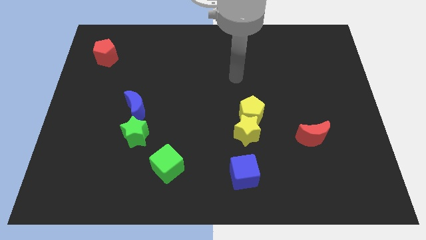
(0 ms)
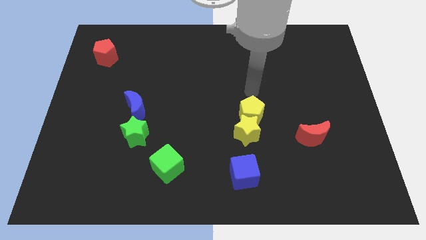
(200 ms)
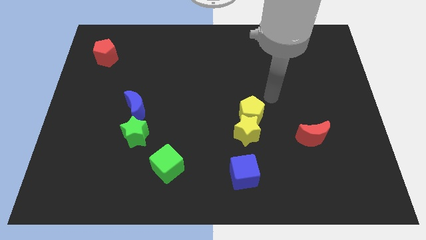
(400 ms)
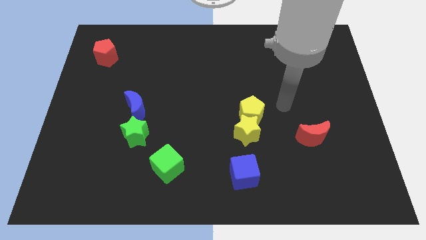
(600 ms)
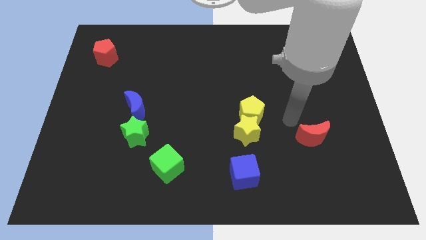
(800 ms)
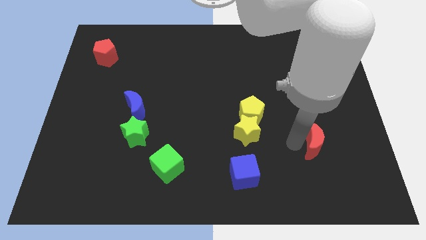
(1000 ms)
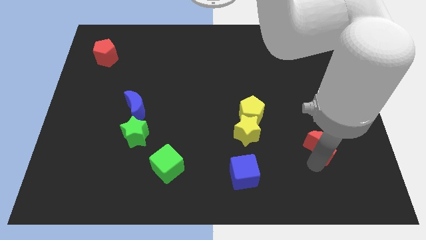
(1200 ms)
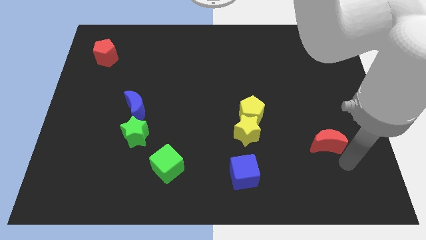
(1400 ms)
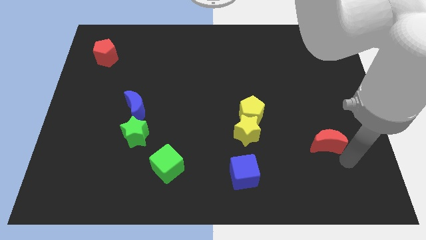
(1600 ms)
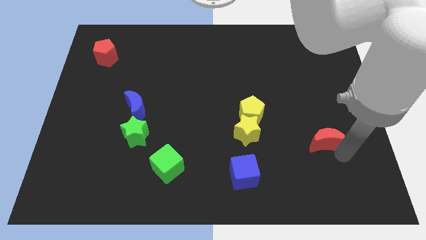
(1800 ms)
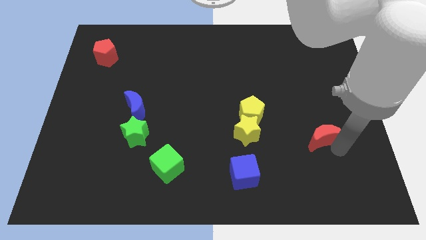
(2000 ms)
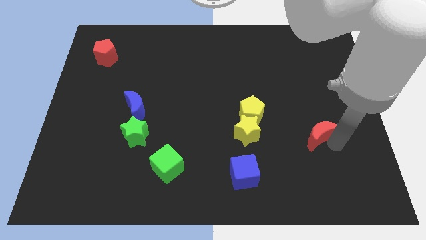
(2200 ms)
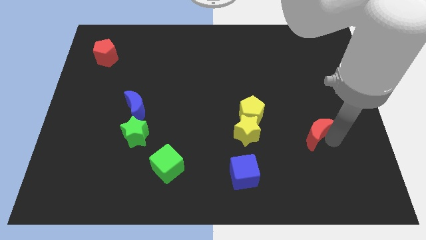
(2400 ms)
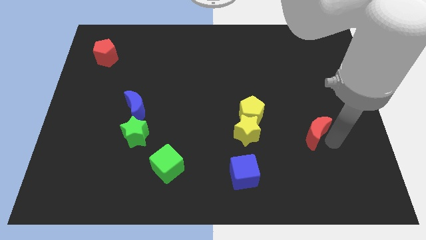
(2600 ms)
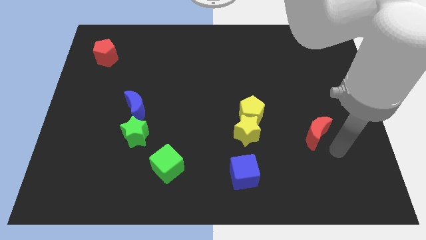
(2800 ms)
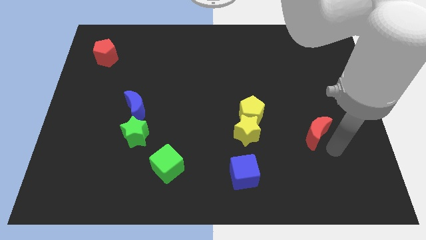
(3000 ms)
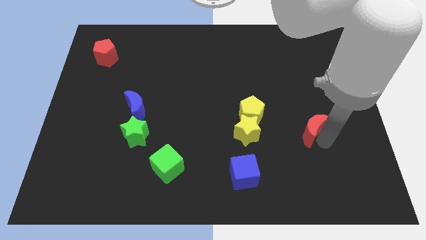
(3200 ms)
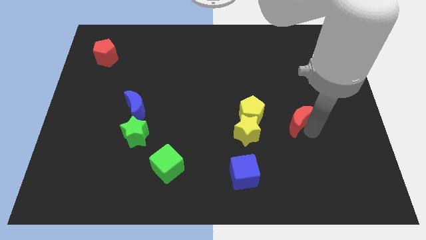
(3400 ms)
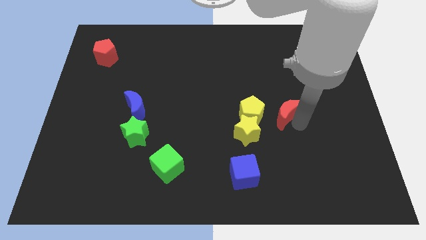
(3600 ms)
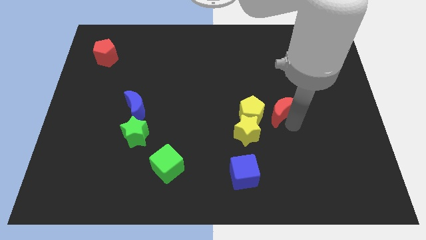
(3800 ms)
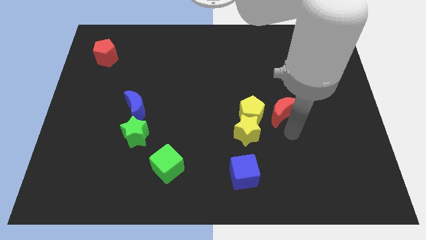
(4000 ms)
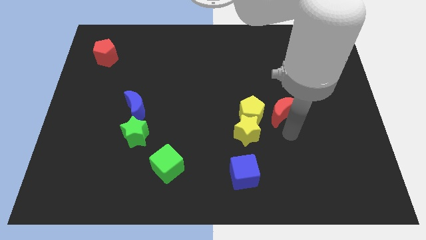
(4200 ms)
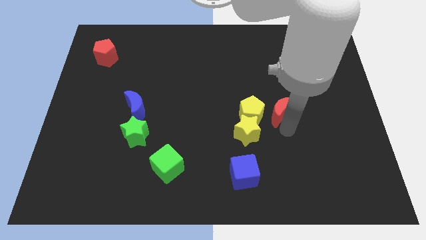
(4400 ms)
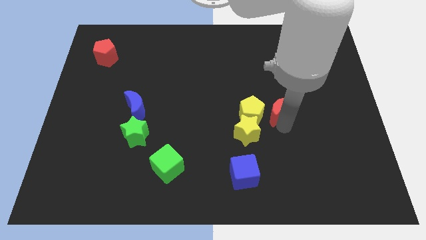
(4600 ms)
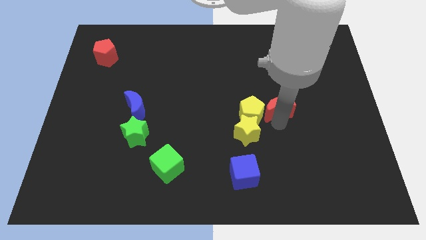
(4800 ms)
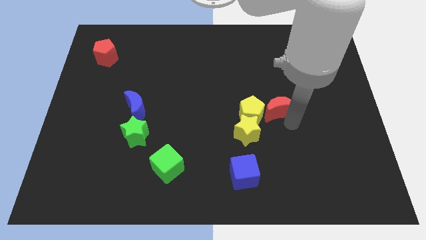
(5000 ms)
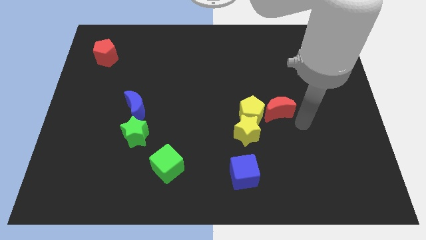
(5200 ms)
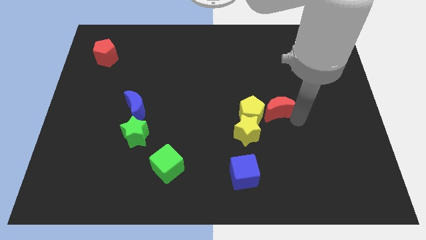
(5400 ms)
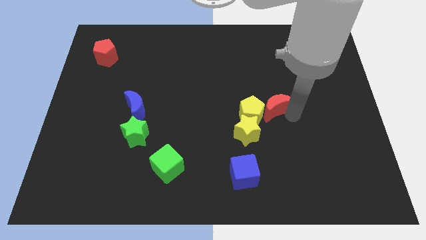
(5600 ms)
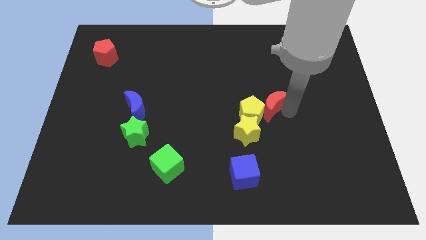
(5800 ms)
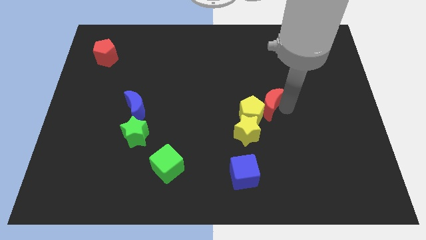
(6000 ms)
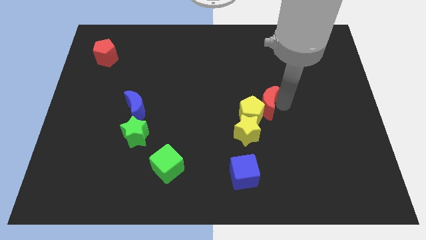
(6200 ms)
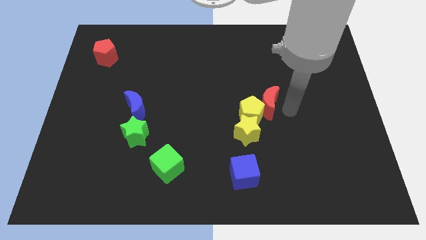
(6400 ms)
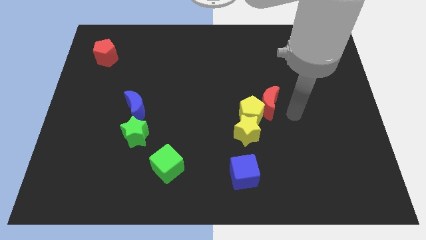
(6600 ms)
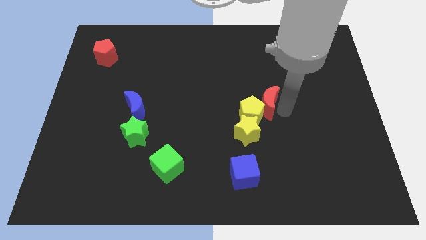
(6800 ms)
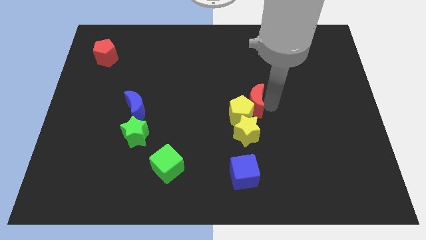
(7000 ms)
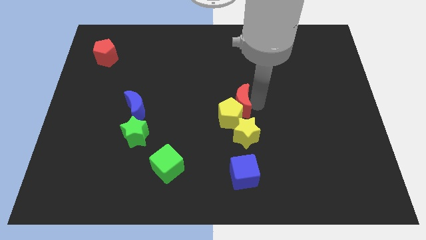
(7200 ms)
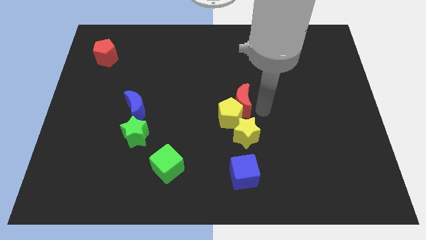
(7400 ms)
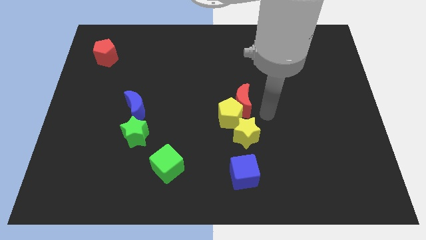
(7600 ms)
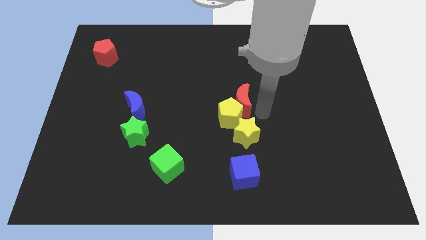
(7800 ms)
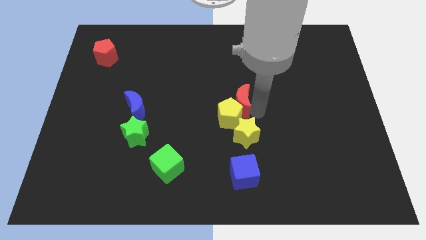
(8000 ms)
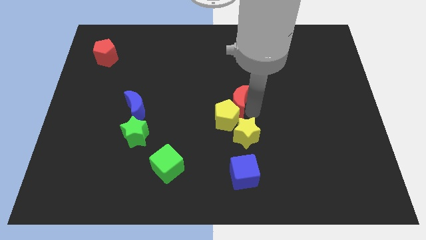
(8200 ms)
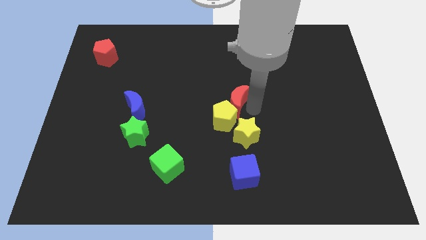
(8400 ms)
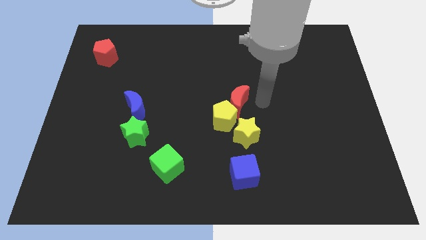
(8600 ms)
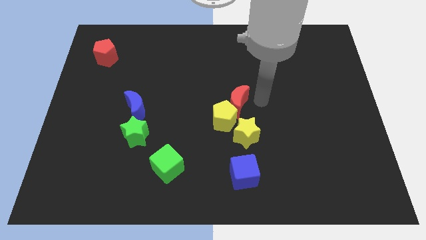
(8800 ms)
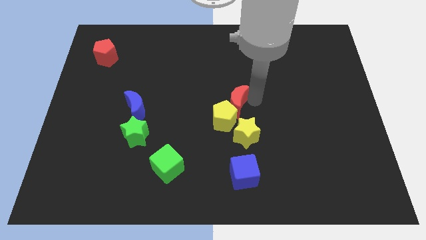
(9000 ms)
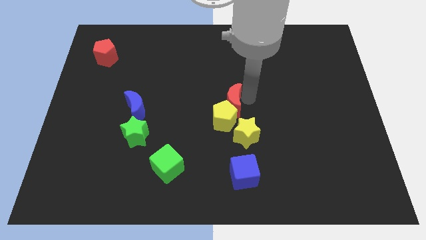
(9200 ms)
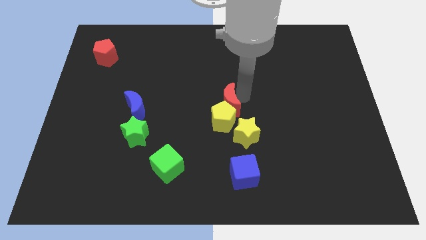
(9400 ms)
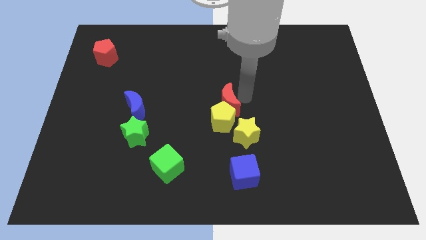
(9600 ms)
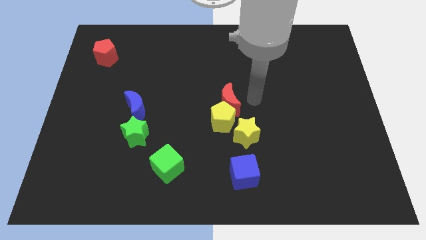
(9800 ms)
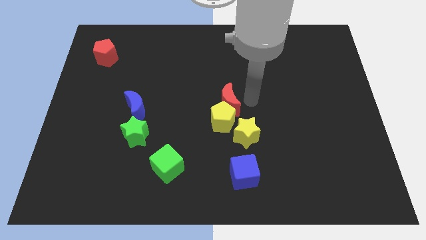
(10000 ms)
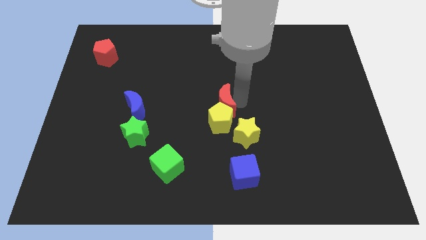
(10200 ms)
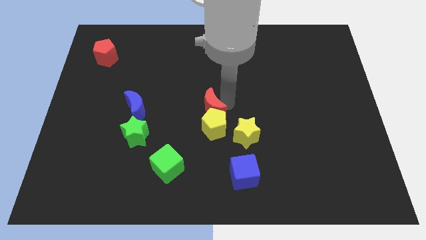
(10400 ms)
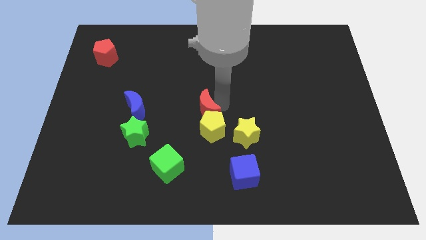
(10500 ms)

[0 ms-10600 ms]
move the red moon left

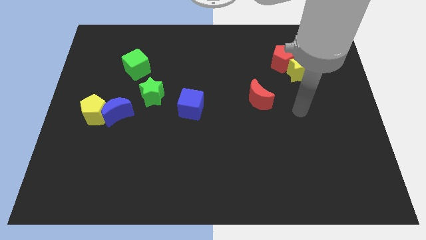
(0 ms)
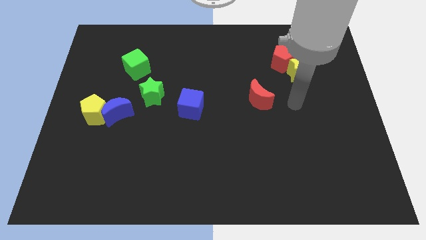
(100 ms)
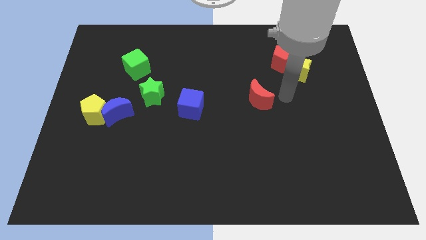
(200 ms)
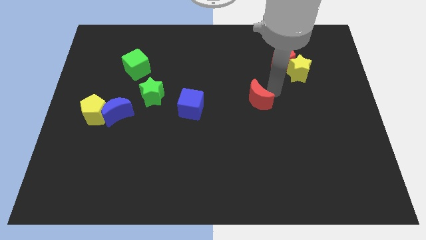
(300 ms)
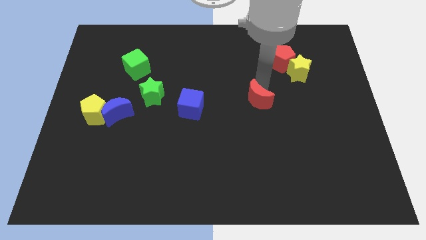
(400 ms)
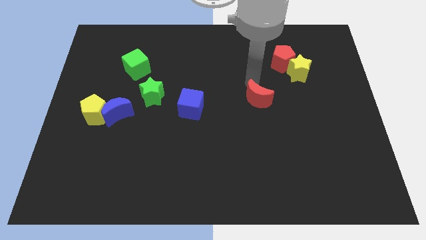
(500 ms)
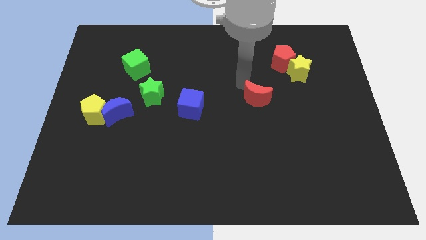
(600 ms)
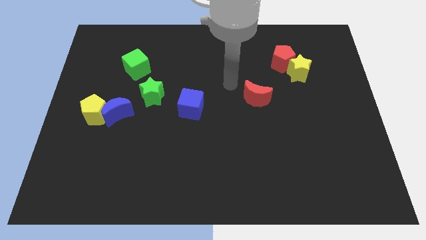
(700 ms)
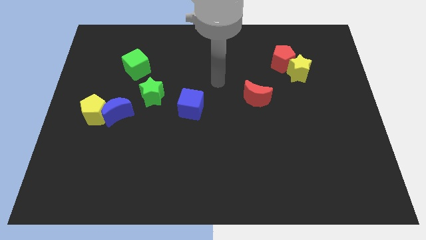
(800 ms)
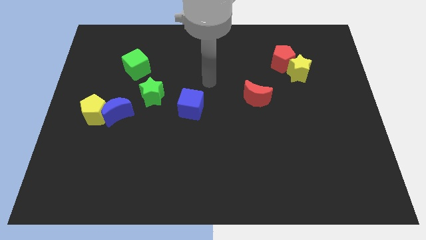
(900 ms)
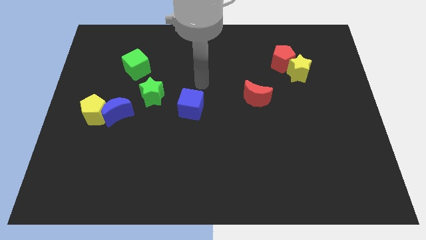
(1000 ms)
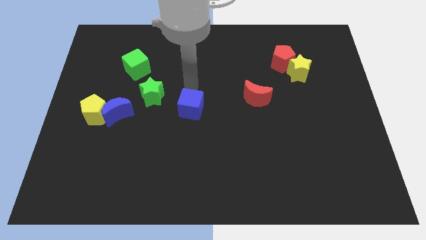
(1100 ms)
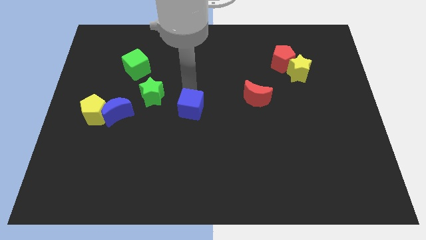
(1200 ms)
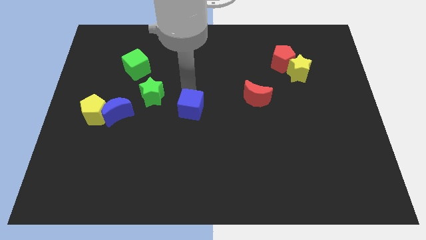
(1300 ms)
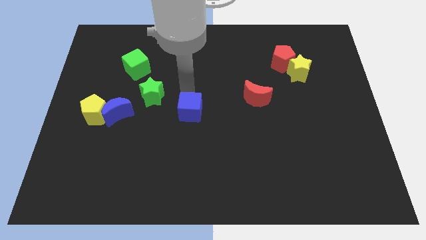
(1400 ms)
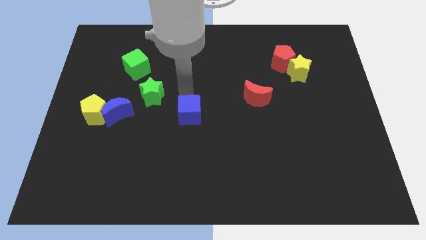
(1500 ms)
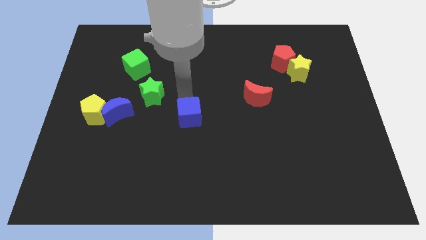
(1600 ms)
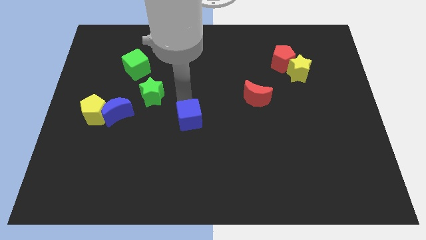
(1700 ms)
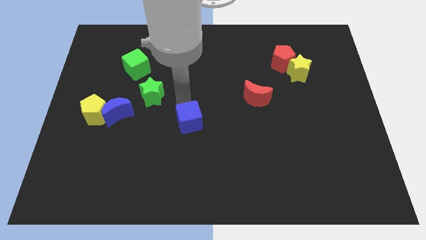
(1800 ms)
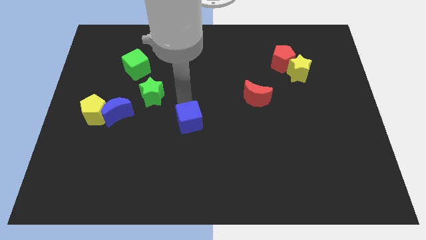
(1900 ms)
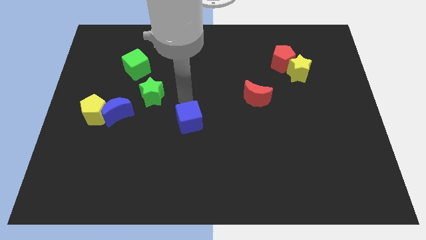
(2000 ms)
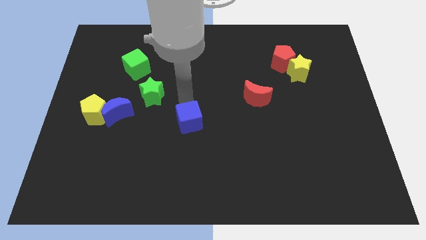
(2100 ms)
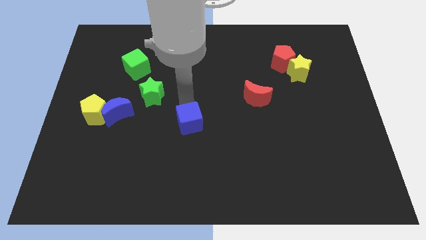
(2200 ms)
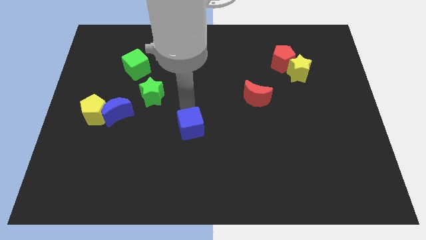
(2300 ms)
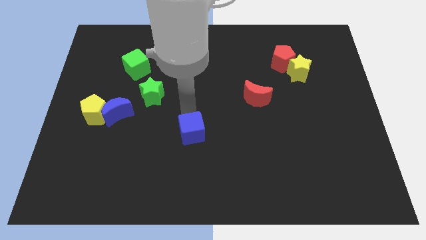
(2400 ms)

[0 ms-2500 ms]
move the blue cube downwards slightly

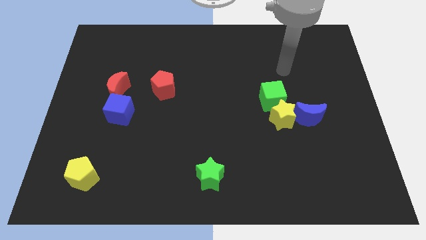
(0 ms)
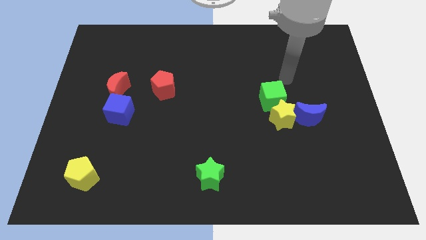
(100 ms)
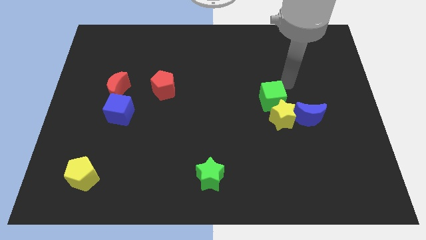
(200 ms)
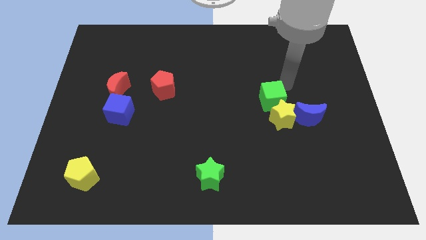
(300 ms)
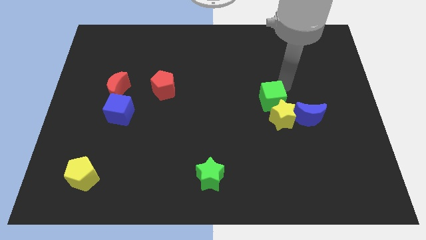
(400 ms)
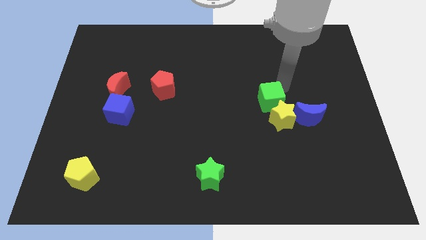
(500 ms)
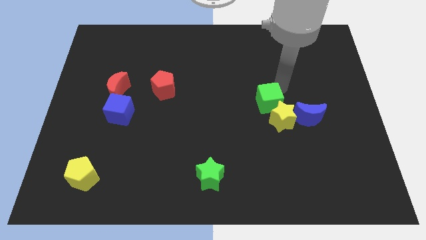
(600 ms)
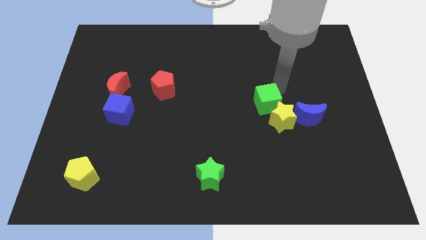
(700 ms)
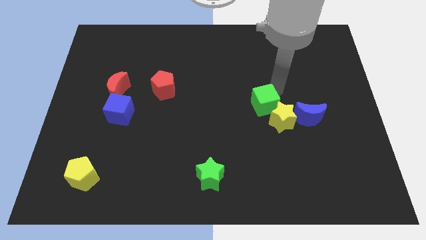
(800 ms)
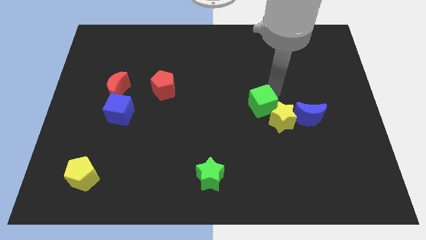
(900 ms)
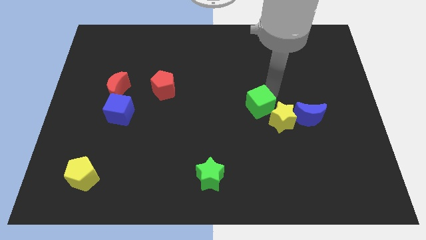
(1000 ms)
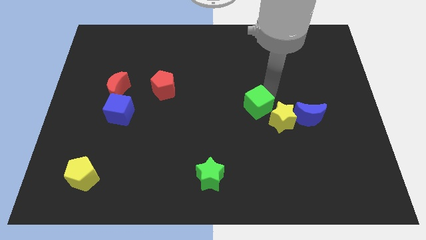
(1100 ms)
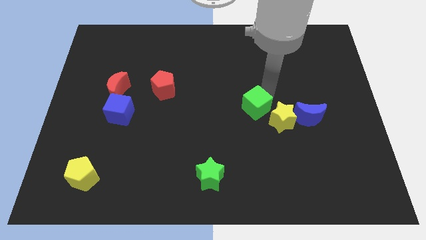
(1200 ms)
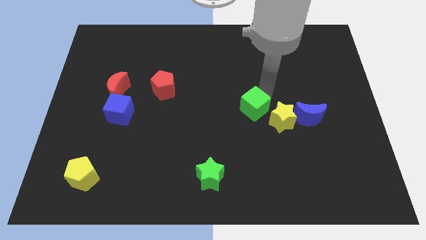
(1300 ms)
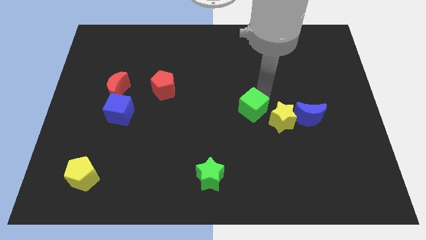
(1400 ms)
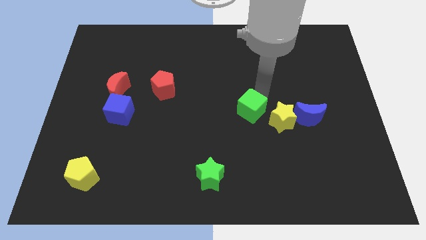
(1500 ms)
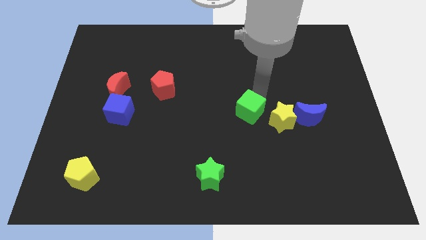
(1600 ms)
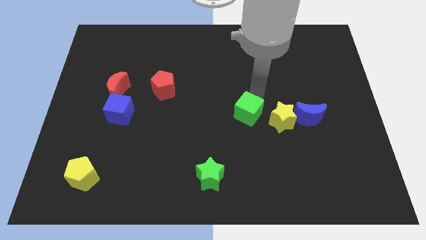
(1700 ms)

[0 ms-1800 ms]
slightly slide the green cube downwards and left
